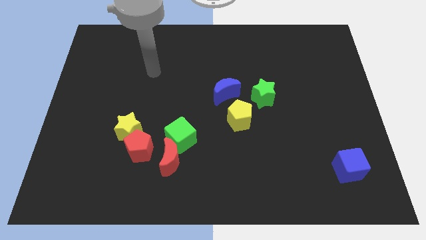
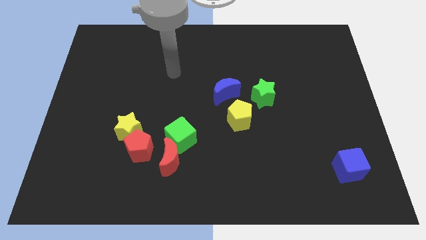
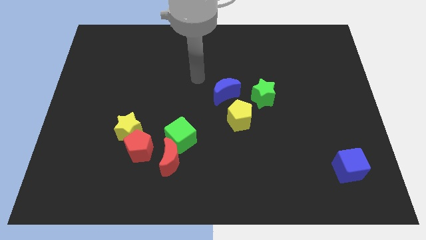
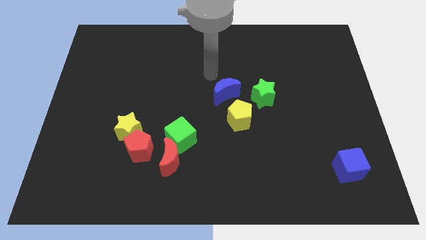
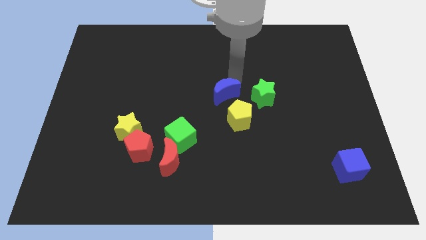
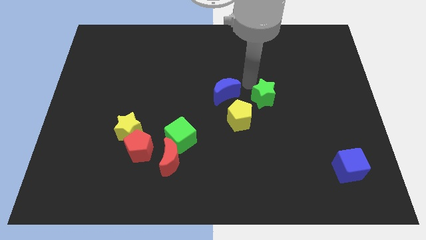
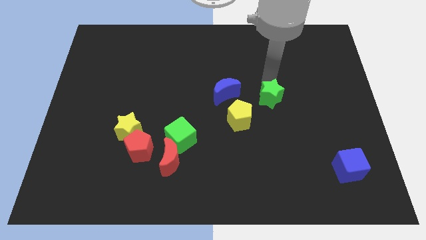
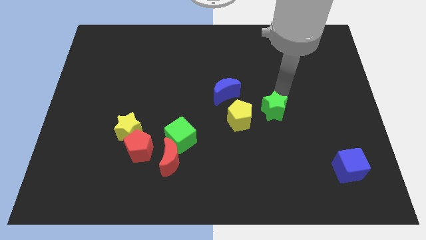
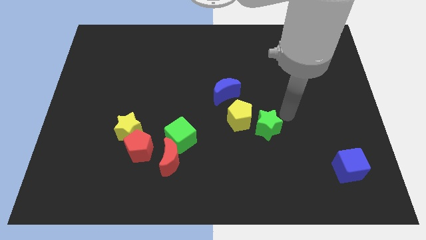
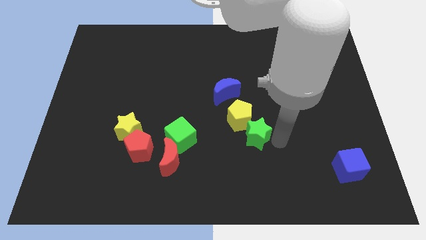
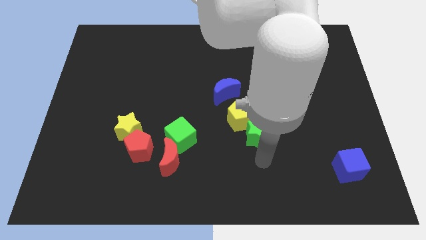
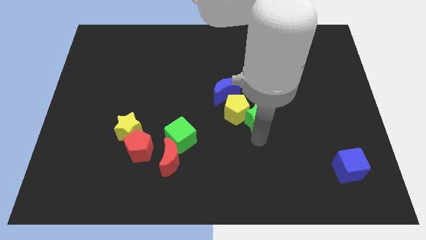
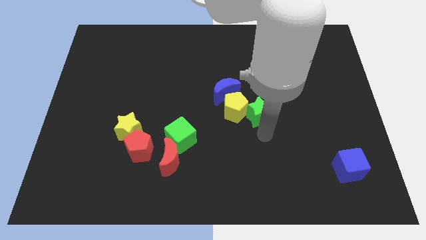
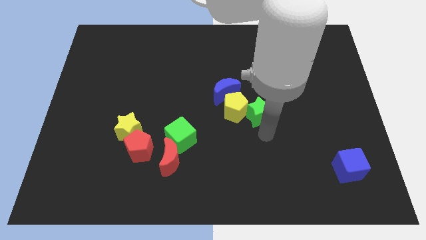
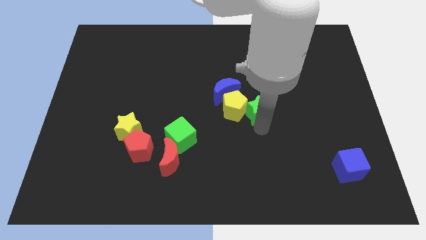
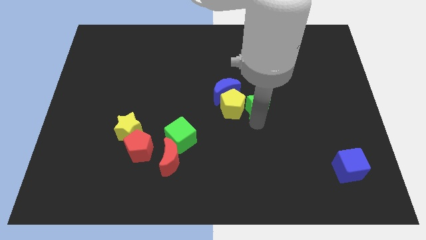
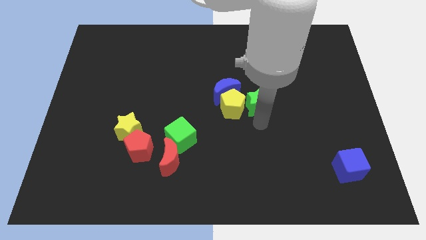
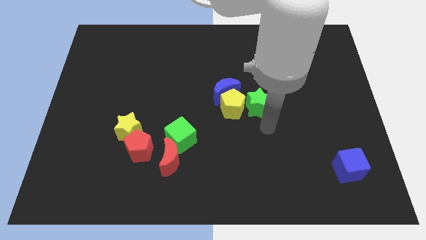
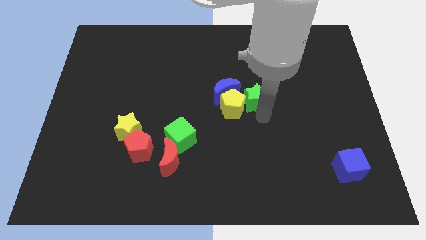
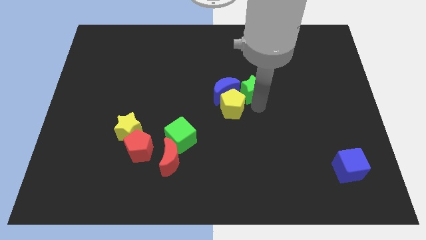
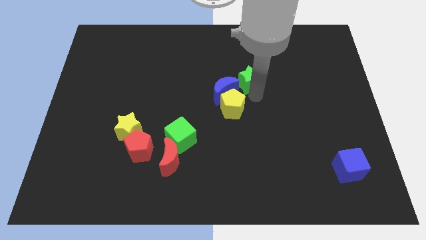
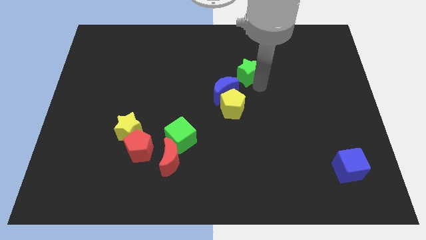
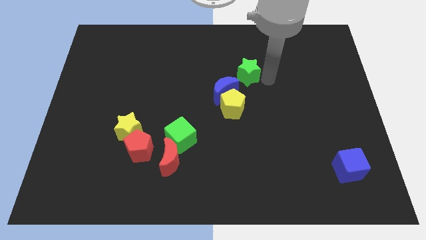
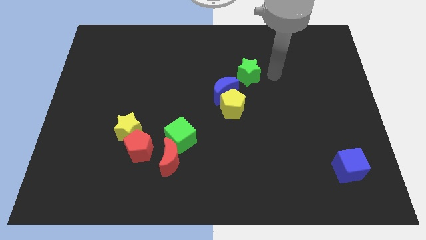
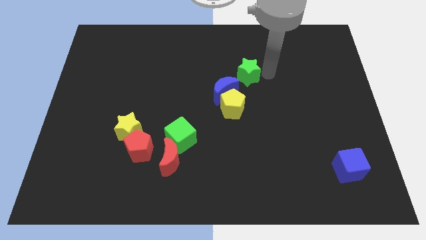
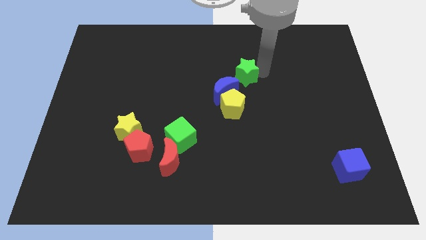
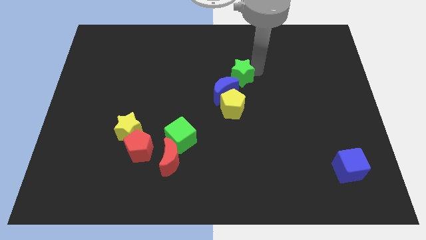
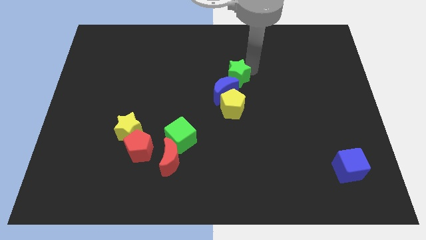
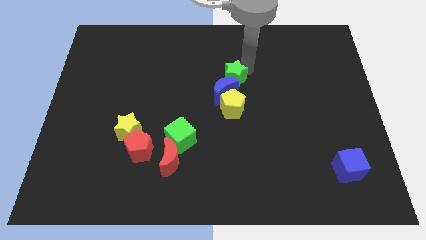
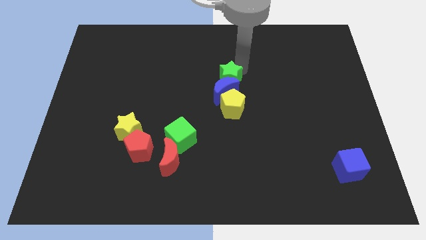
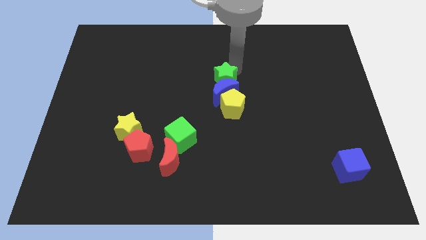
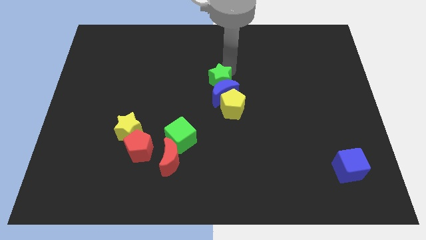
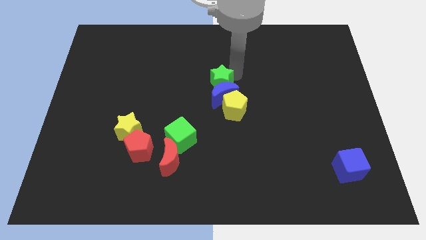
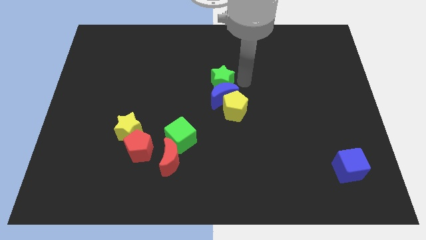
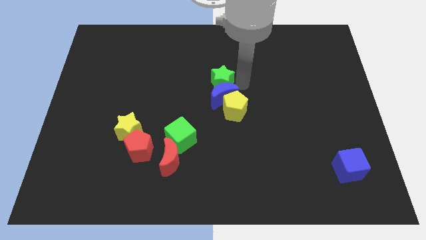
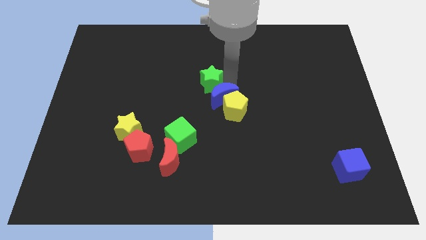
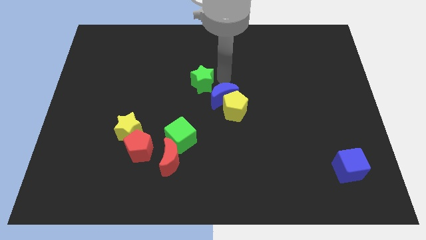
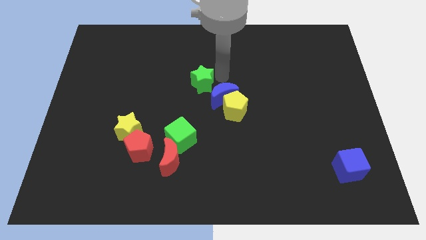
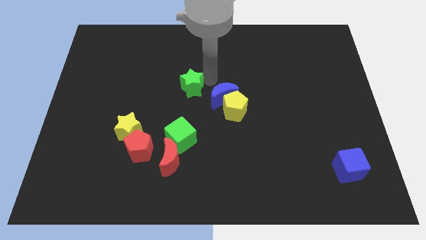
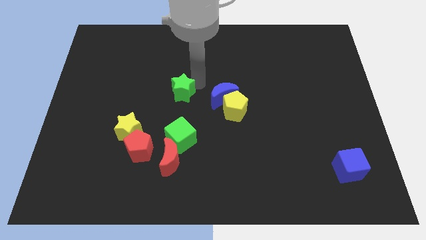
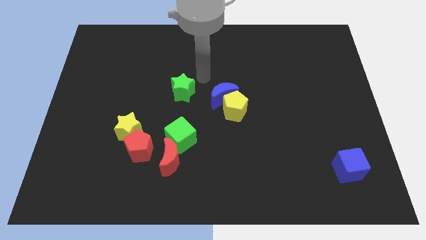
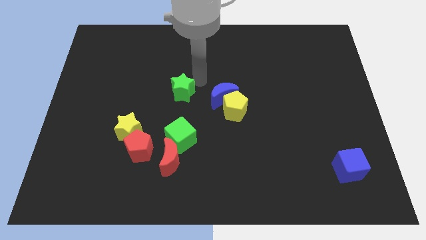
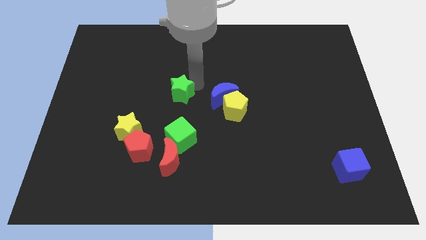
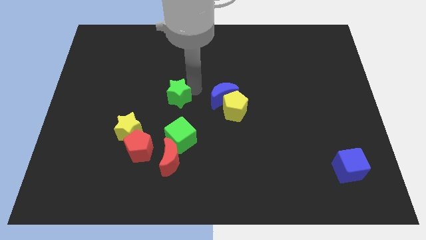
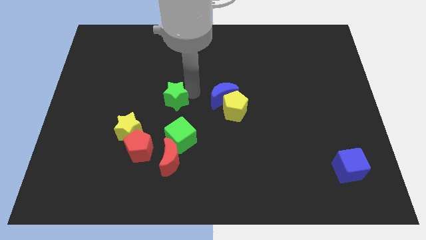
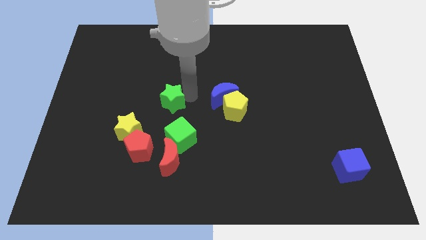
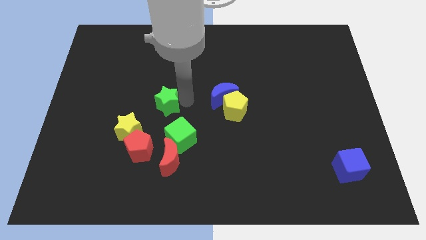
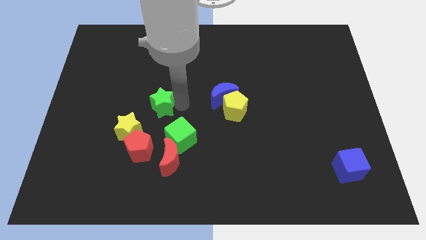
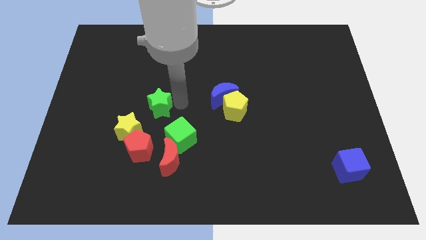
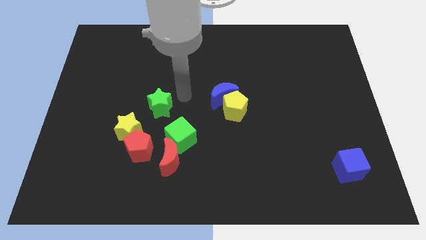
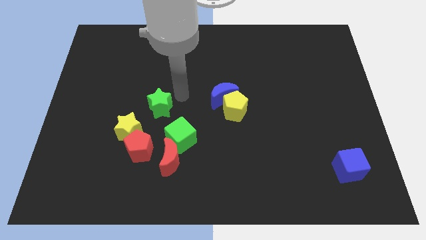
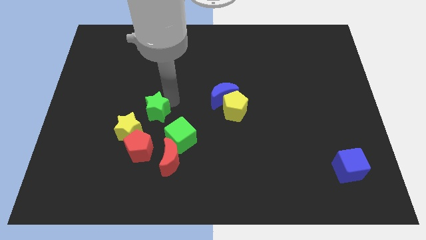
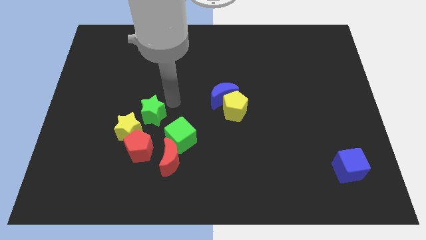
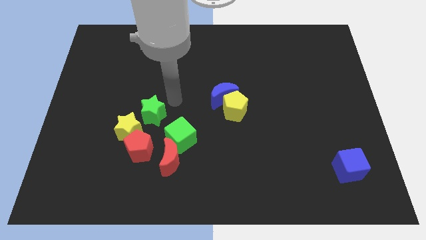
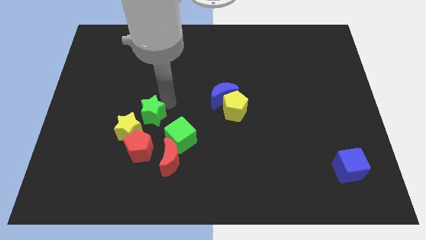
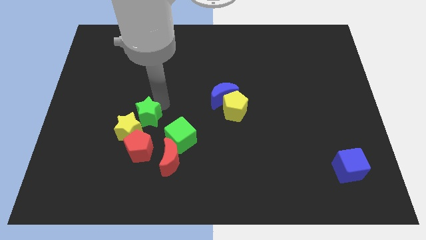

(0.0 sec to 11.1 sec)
push the green star to the yellow star

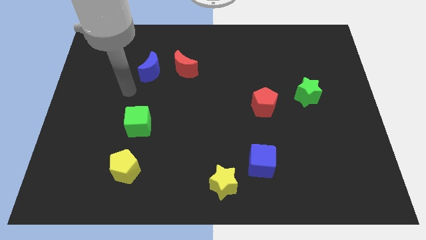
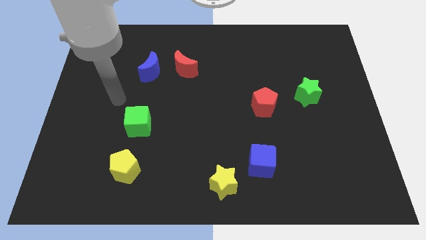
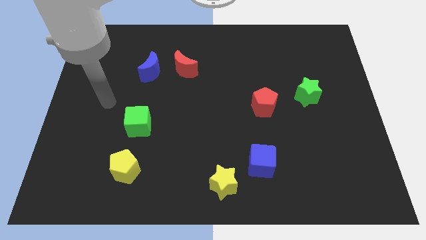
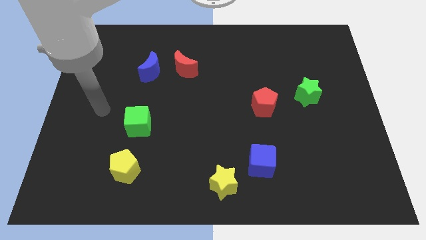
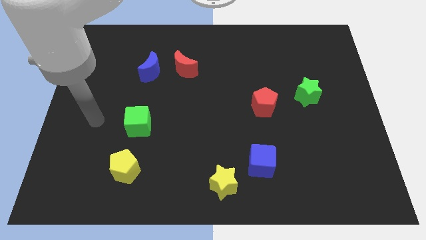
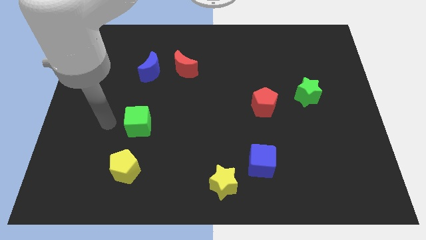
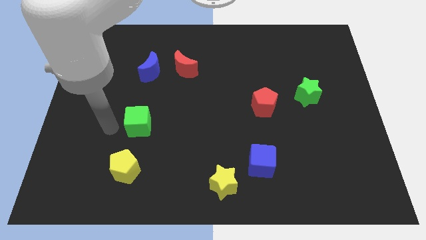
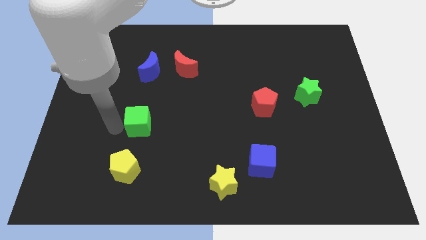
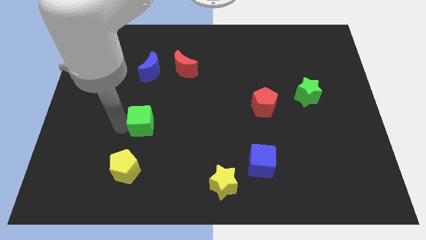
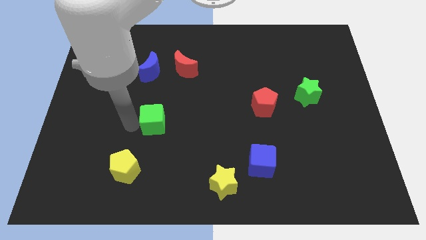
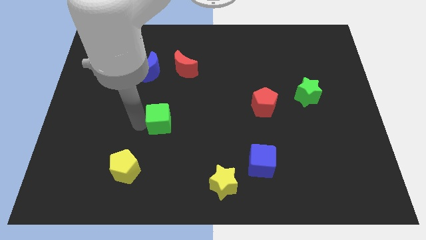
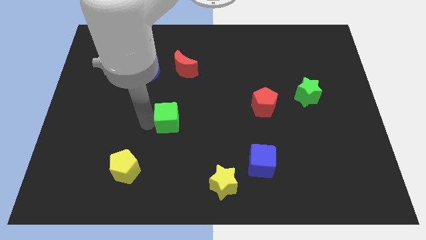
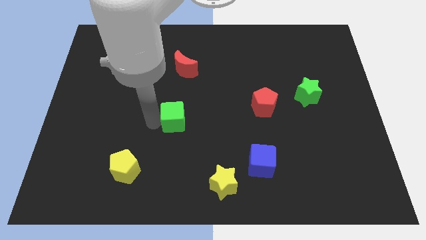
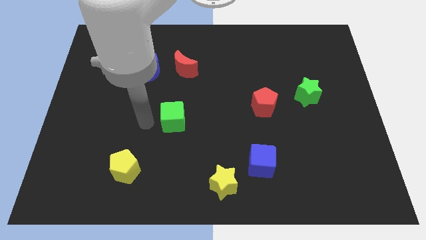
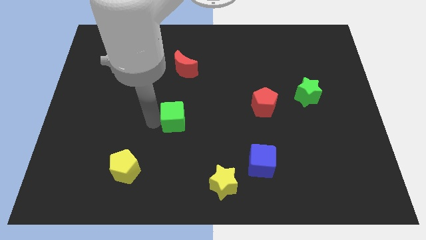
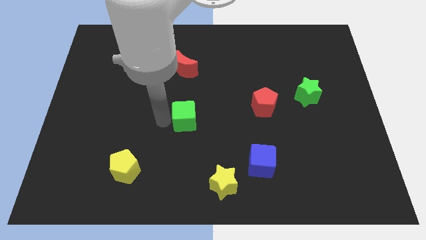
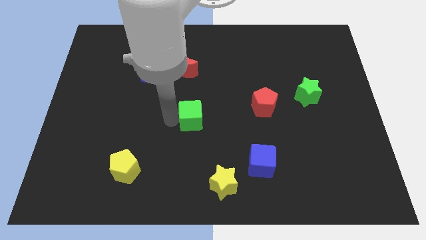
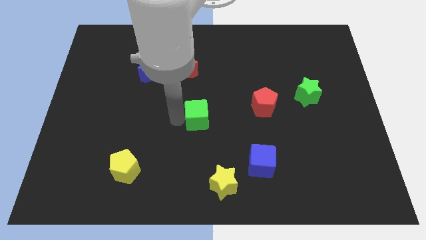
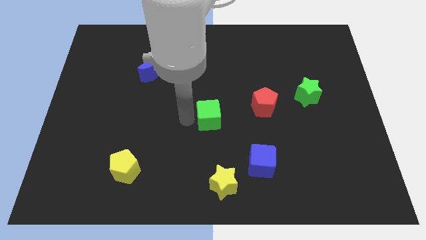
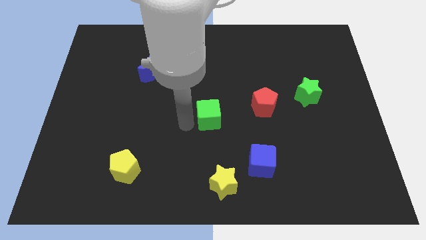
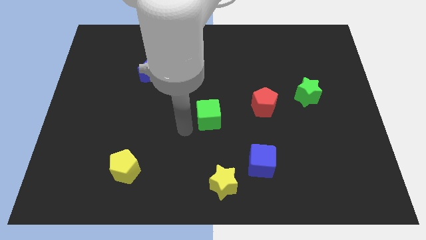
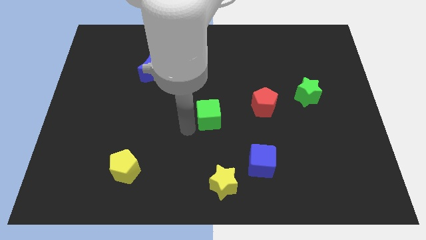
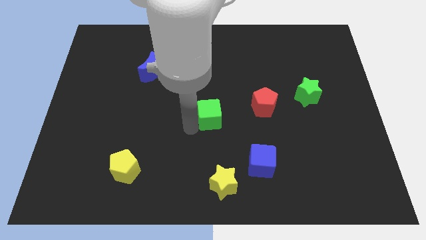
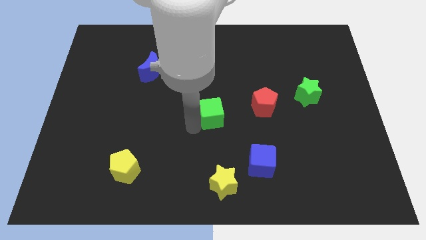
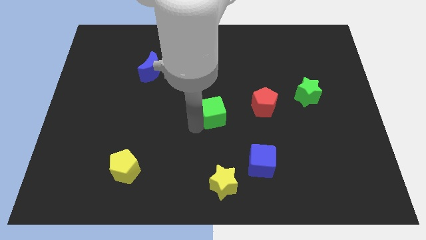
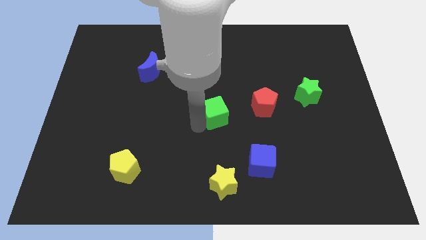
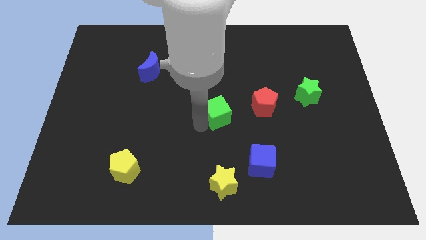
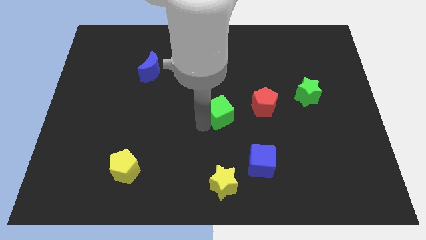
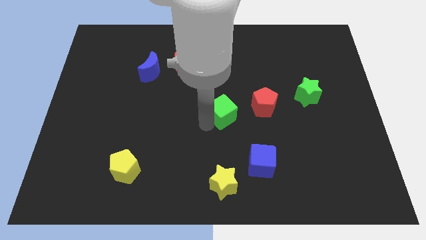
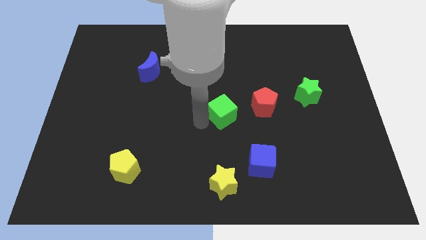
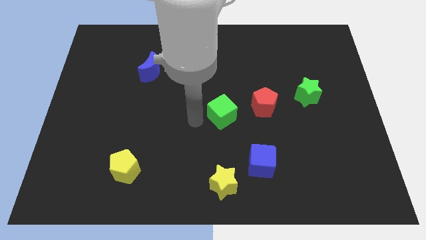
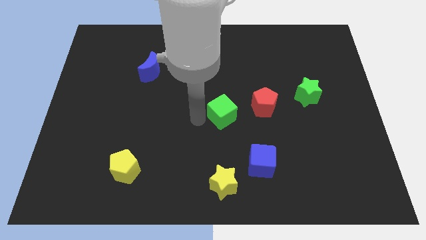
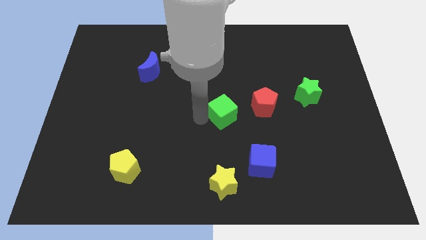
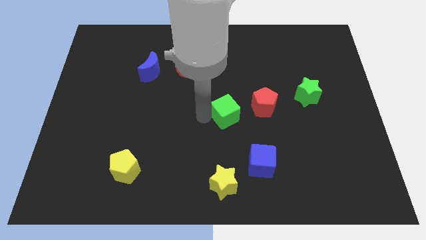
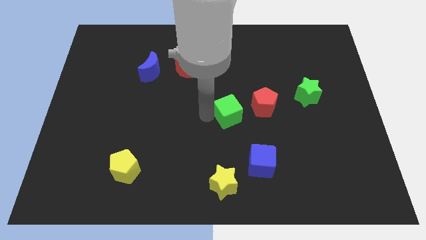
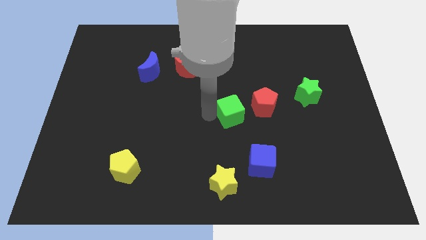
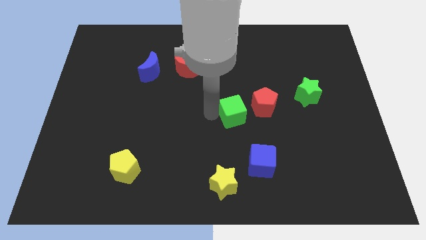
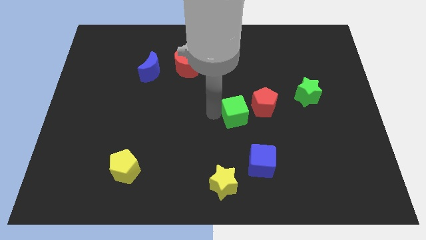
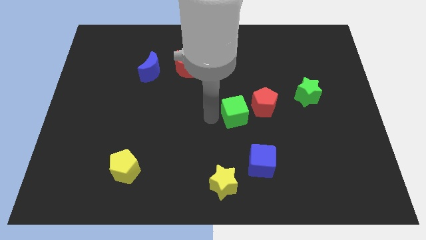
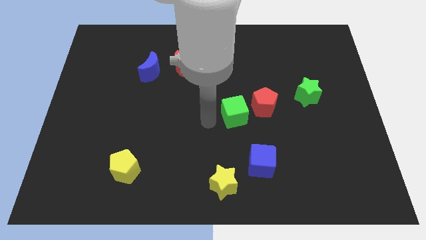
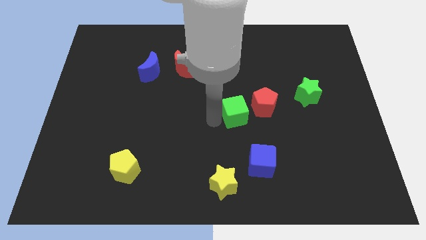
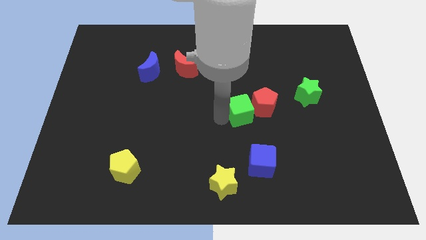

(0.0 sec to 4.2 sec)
push the green cube next to the red pentagon
